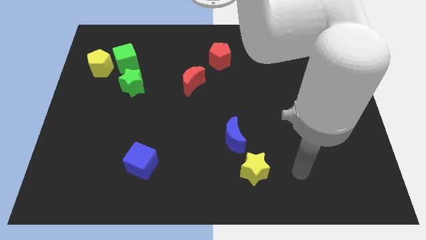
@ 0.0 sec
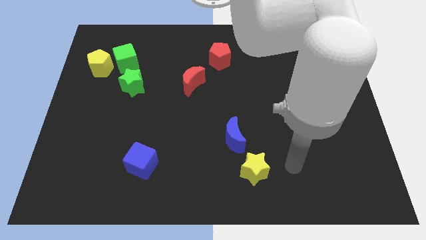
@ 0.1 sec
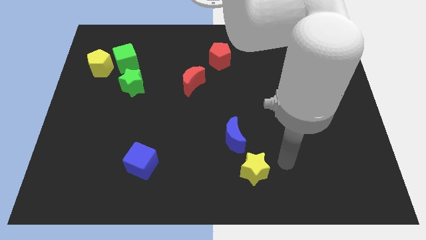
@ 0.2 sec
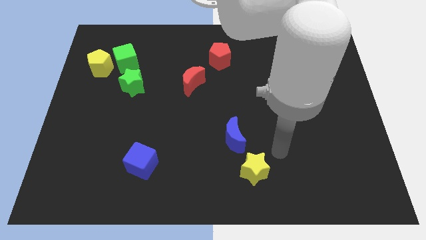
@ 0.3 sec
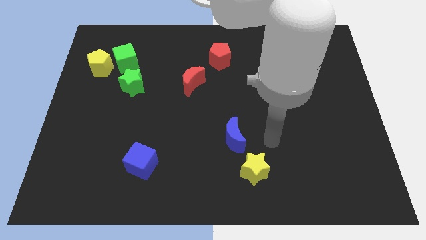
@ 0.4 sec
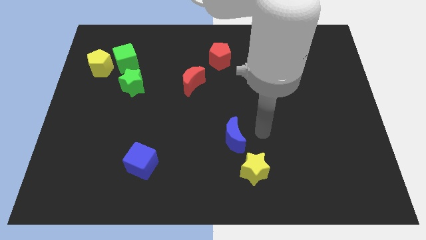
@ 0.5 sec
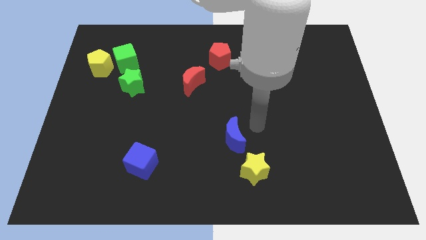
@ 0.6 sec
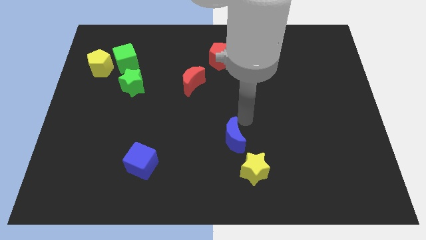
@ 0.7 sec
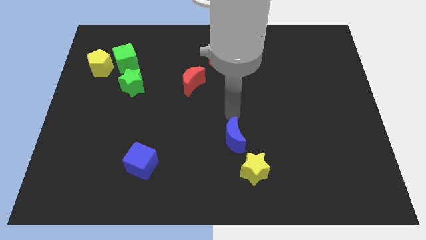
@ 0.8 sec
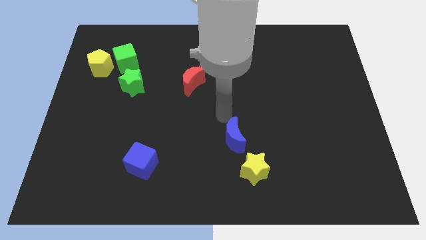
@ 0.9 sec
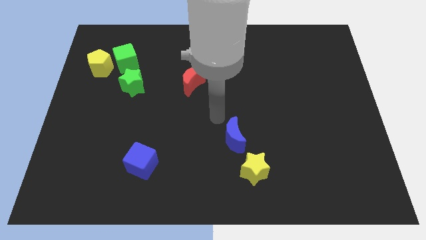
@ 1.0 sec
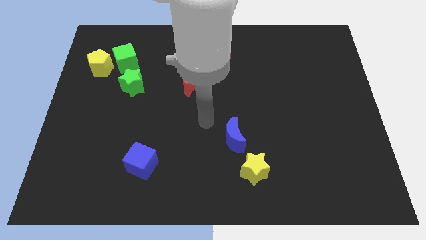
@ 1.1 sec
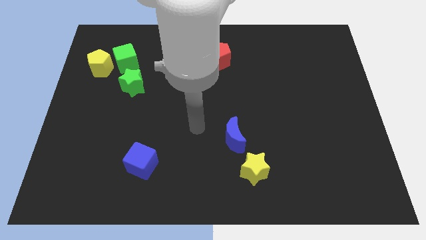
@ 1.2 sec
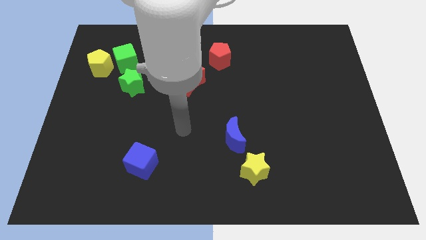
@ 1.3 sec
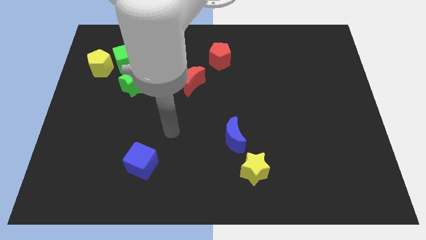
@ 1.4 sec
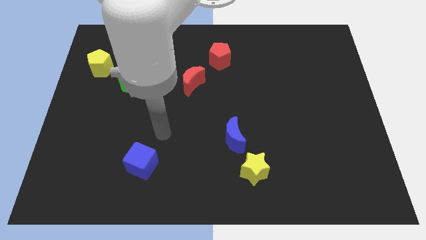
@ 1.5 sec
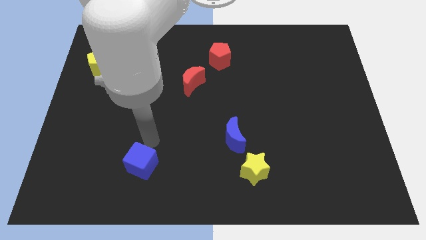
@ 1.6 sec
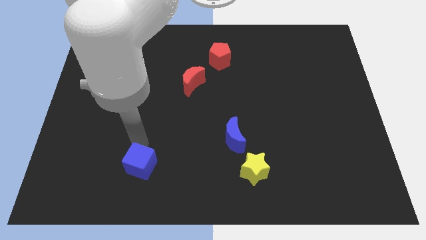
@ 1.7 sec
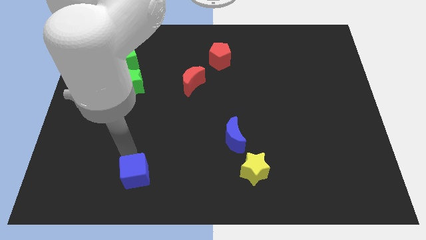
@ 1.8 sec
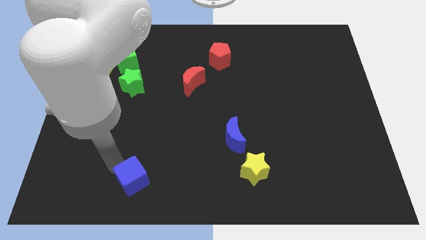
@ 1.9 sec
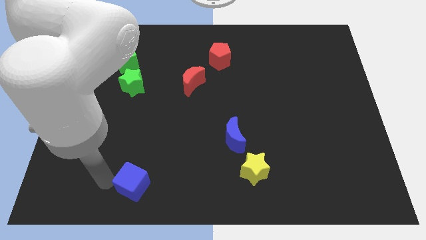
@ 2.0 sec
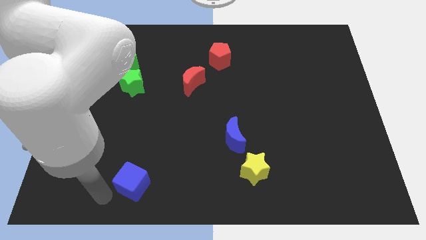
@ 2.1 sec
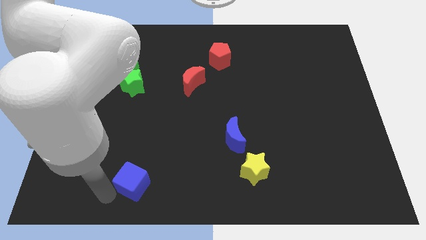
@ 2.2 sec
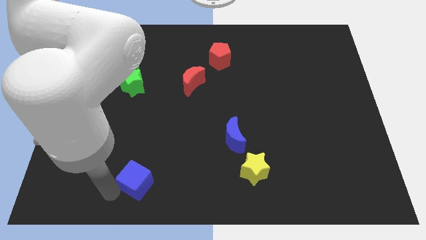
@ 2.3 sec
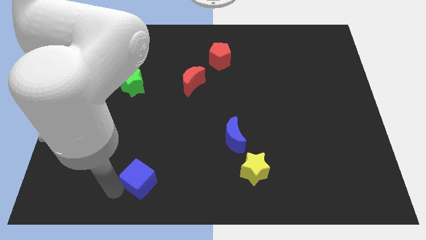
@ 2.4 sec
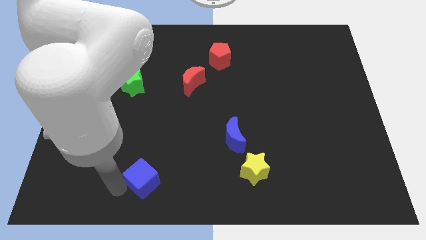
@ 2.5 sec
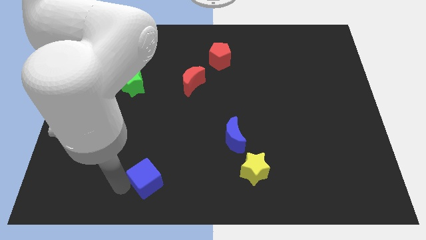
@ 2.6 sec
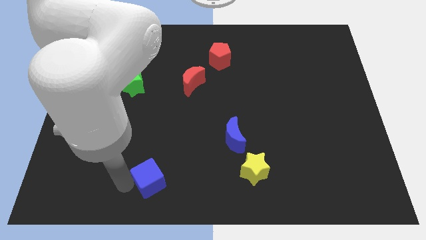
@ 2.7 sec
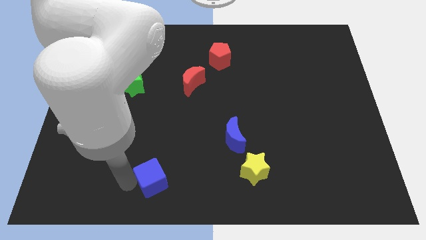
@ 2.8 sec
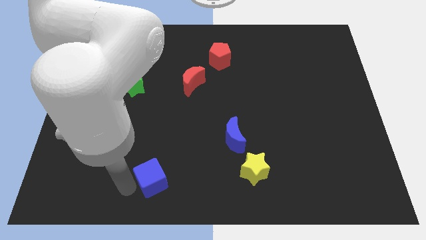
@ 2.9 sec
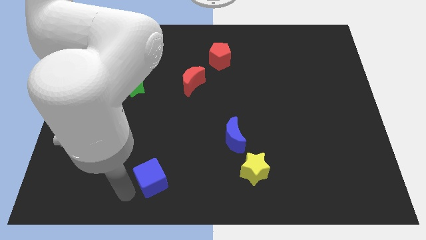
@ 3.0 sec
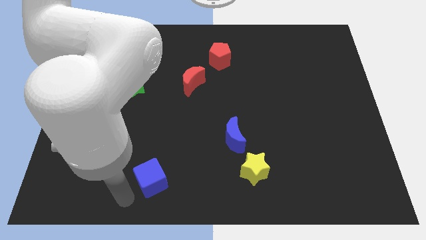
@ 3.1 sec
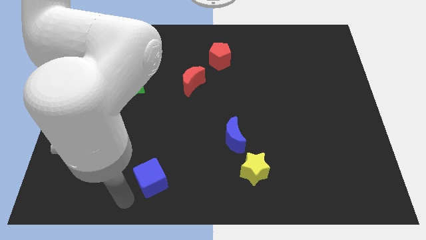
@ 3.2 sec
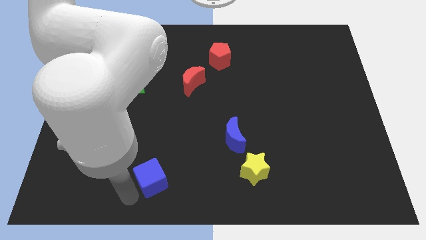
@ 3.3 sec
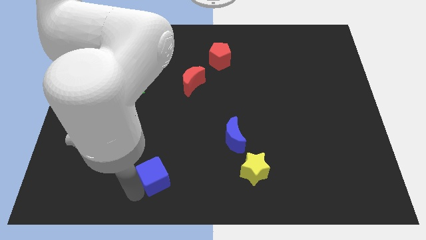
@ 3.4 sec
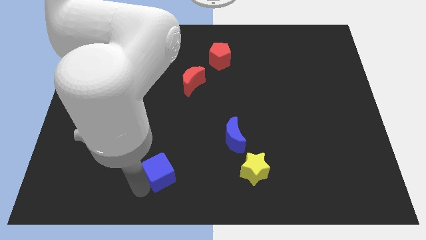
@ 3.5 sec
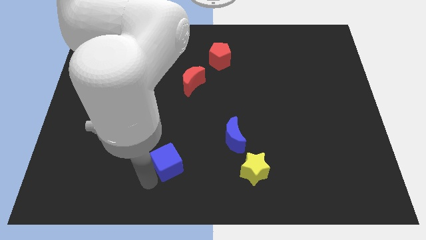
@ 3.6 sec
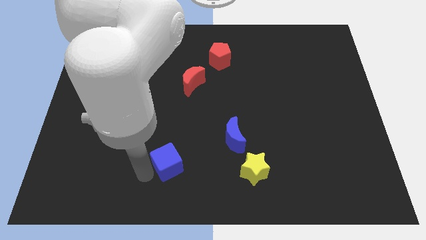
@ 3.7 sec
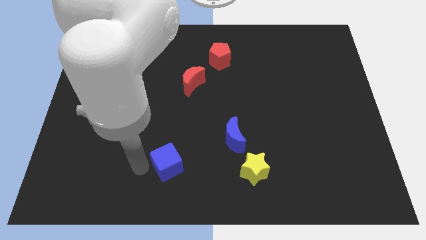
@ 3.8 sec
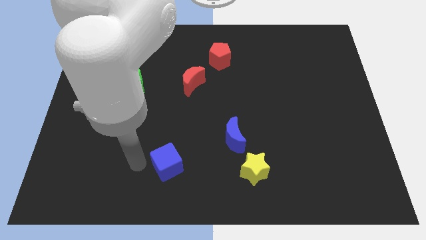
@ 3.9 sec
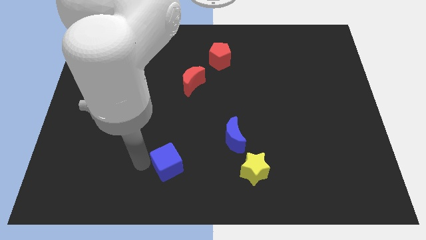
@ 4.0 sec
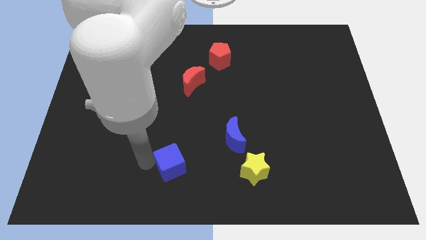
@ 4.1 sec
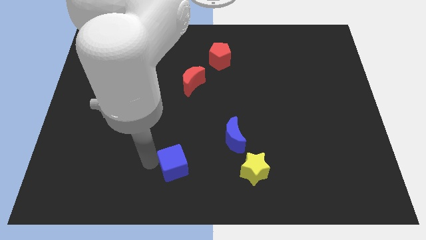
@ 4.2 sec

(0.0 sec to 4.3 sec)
push the blue cube a little bit to the right

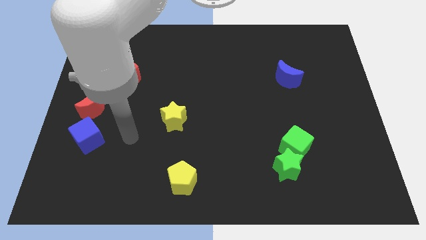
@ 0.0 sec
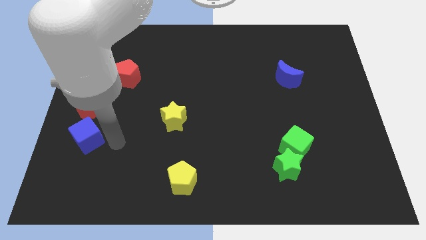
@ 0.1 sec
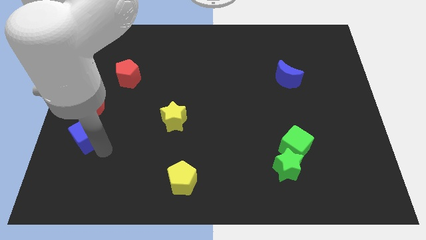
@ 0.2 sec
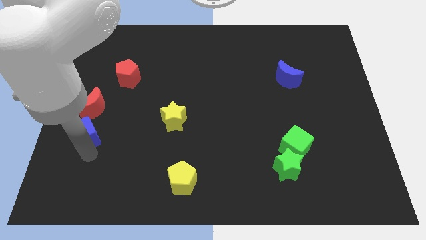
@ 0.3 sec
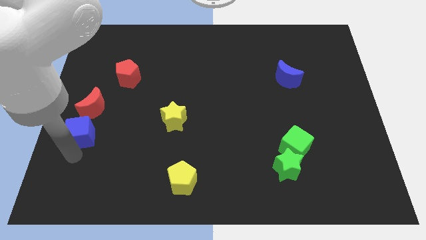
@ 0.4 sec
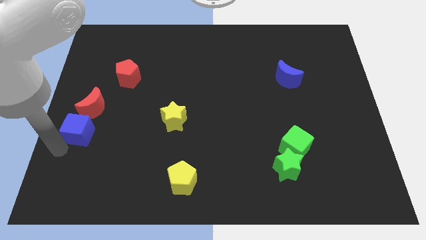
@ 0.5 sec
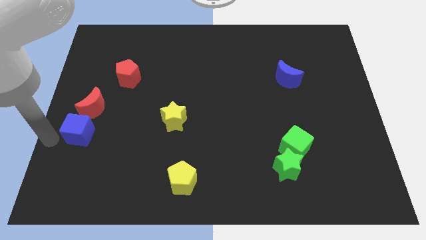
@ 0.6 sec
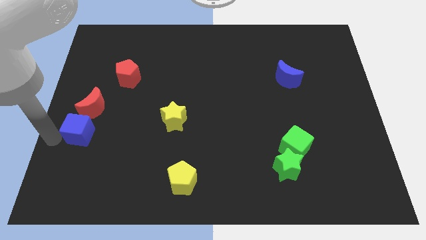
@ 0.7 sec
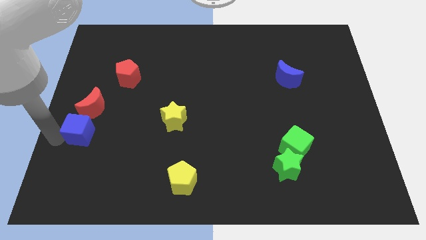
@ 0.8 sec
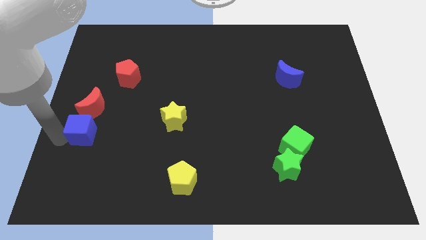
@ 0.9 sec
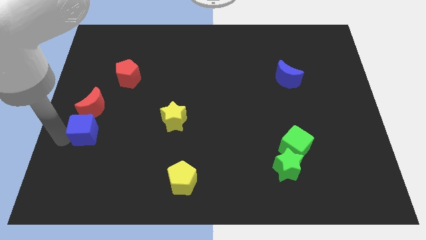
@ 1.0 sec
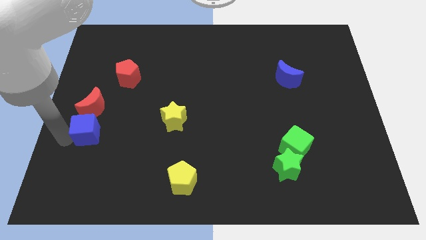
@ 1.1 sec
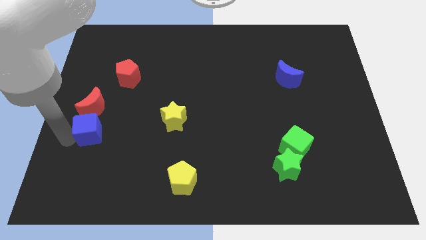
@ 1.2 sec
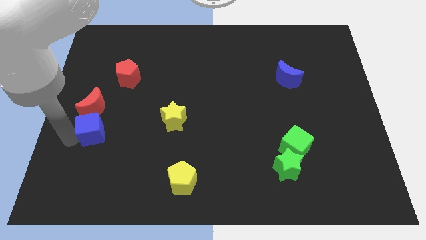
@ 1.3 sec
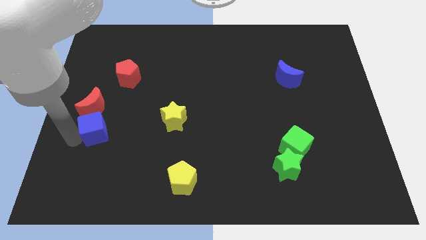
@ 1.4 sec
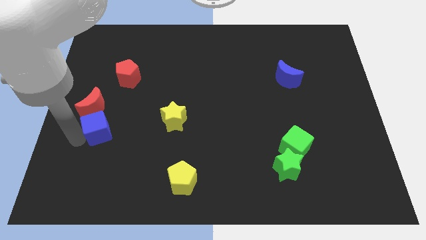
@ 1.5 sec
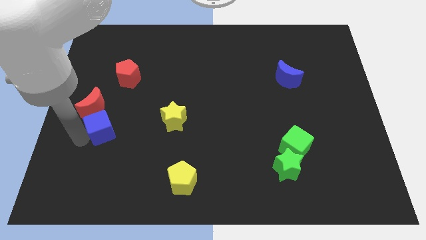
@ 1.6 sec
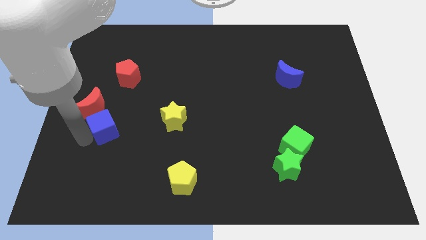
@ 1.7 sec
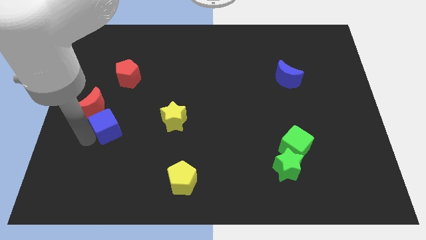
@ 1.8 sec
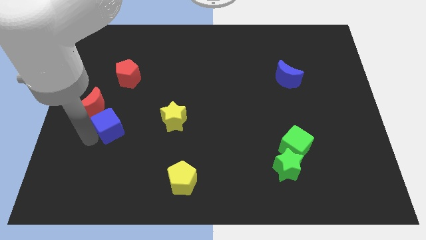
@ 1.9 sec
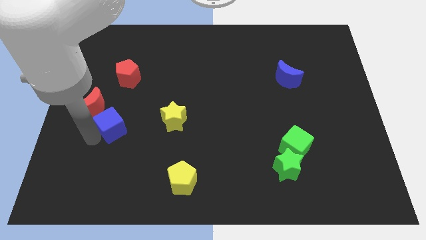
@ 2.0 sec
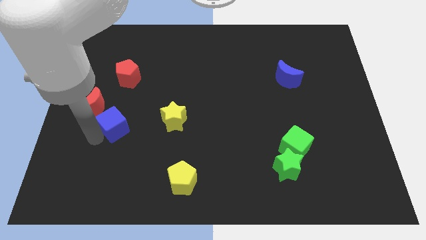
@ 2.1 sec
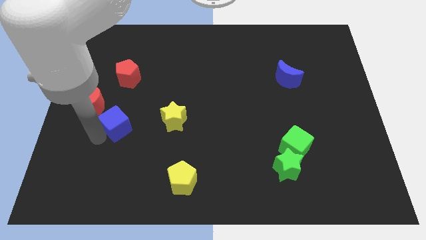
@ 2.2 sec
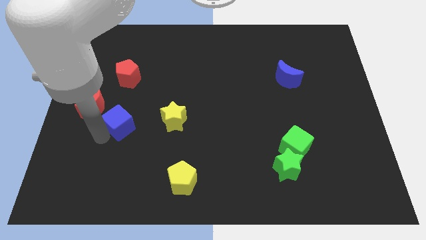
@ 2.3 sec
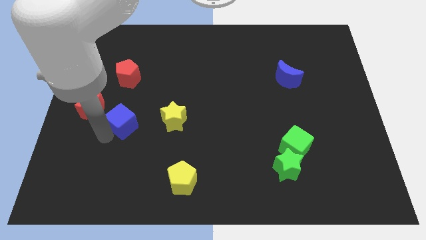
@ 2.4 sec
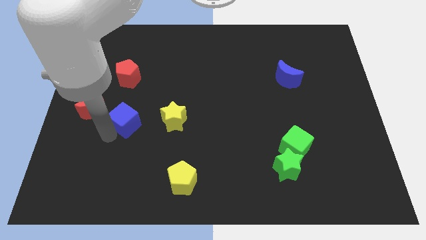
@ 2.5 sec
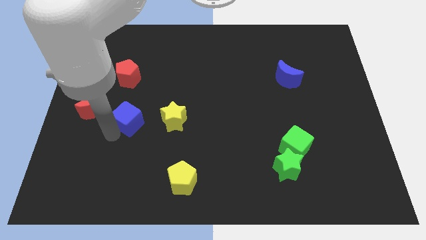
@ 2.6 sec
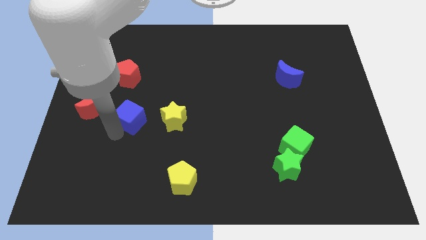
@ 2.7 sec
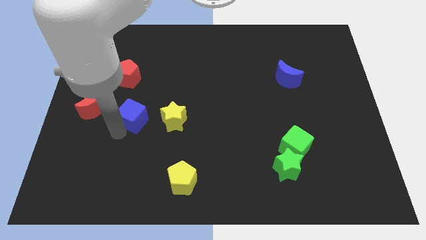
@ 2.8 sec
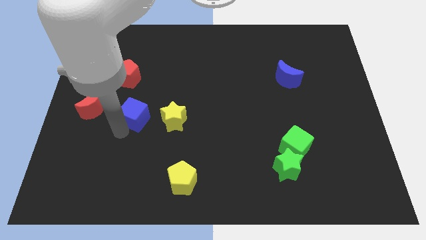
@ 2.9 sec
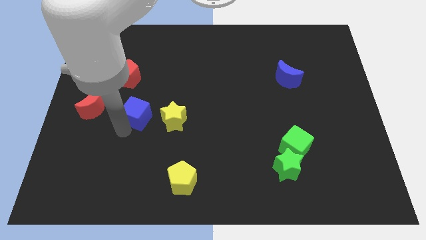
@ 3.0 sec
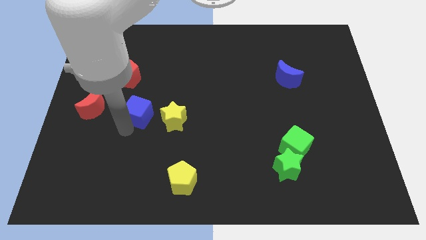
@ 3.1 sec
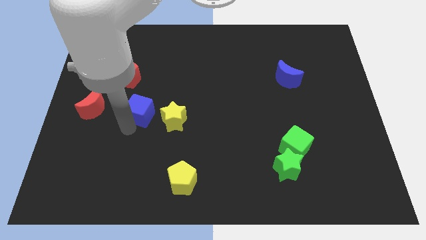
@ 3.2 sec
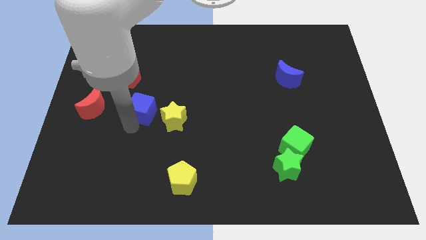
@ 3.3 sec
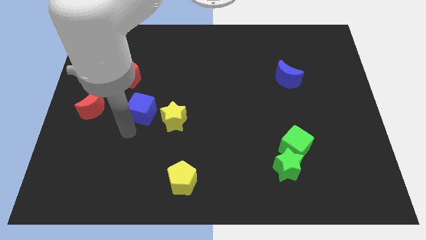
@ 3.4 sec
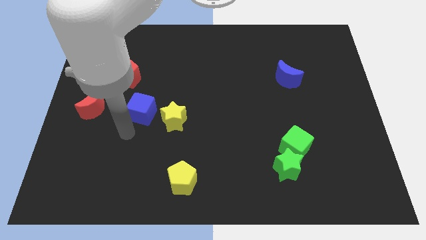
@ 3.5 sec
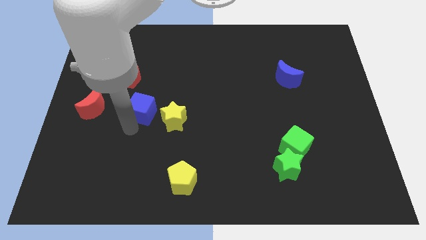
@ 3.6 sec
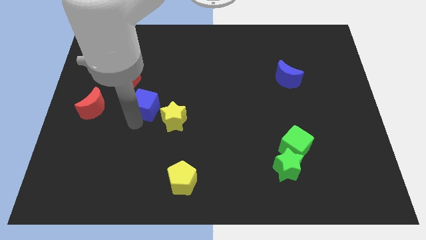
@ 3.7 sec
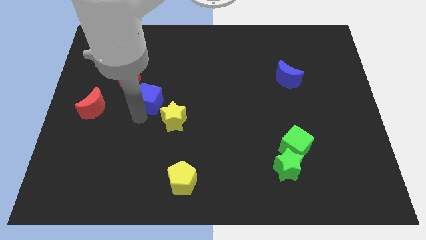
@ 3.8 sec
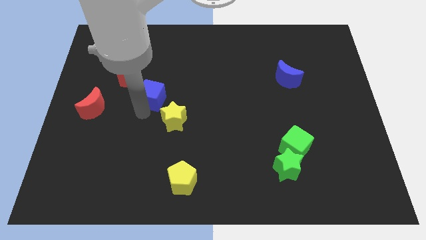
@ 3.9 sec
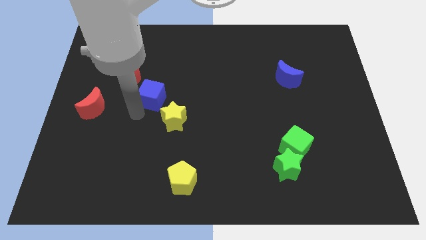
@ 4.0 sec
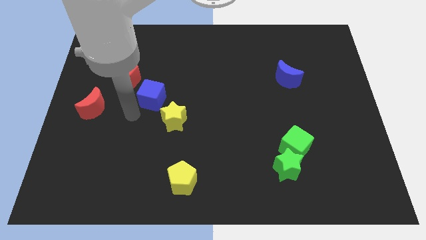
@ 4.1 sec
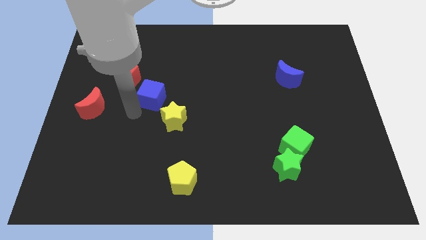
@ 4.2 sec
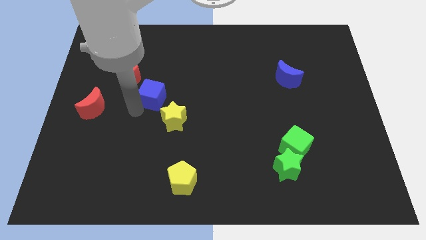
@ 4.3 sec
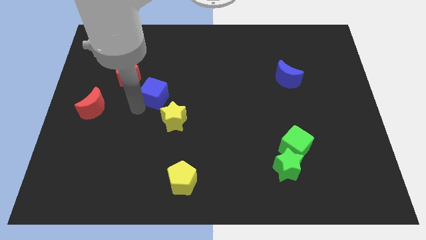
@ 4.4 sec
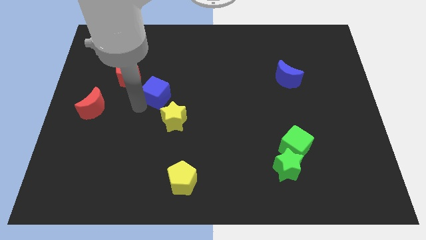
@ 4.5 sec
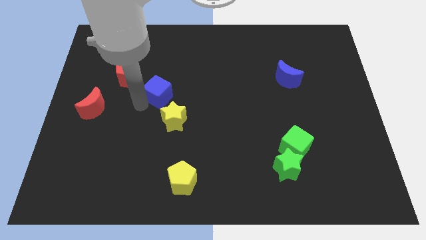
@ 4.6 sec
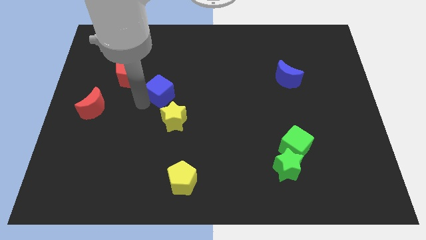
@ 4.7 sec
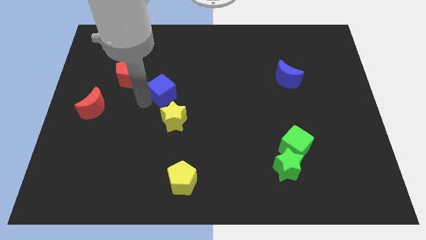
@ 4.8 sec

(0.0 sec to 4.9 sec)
push the blue cube upwards and to the right diagonally
